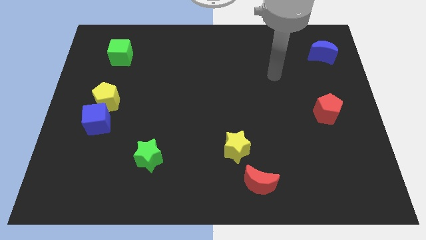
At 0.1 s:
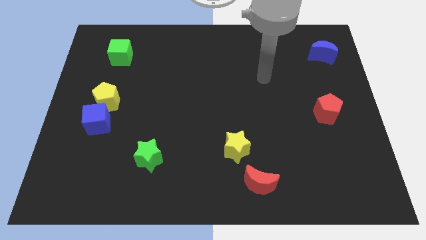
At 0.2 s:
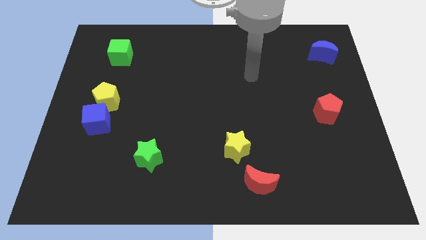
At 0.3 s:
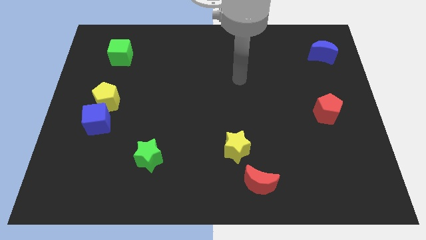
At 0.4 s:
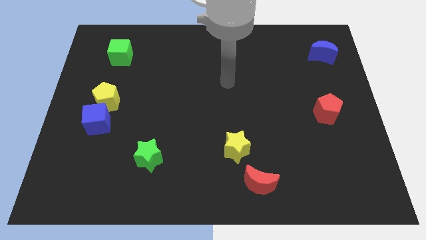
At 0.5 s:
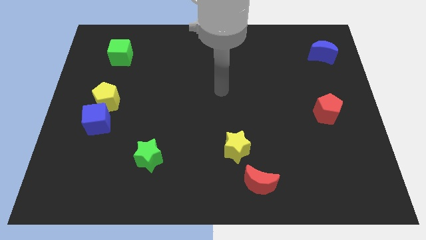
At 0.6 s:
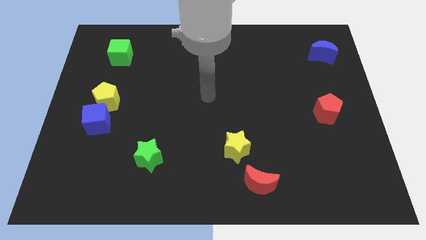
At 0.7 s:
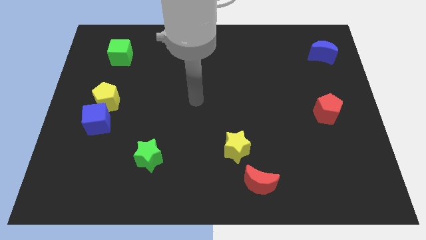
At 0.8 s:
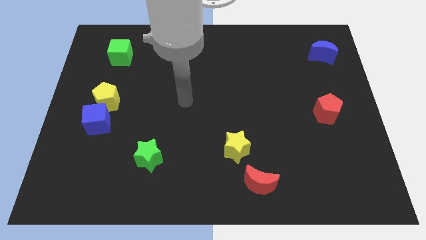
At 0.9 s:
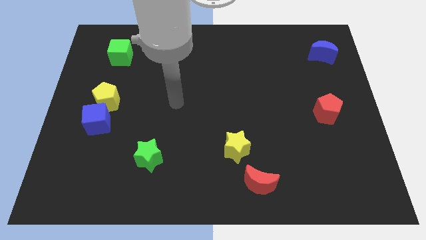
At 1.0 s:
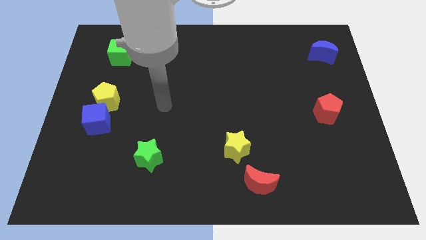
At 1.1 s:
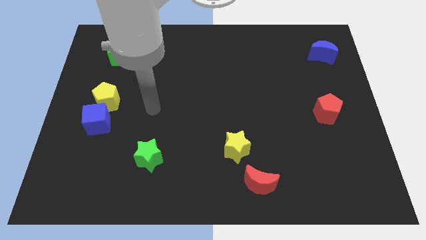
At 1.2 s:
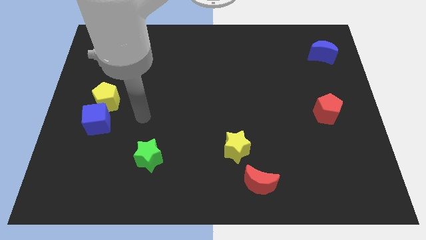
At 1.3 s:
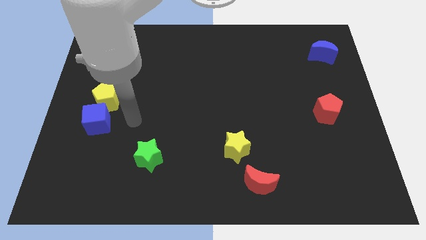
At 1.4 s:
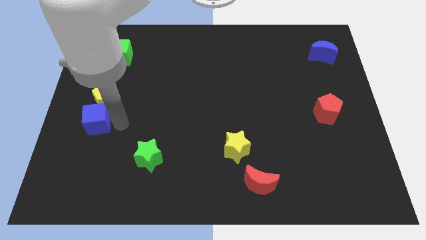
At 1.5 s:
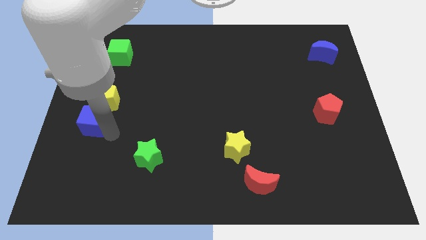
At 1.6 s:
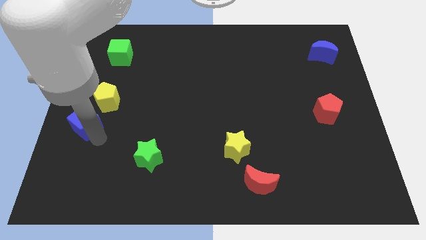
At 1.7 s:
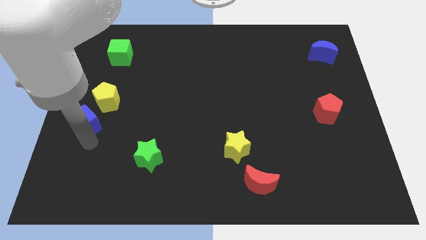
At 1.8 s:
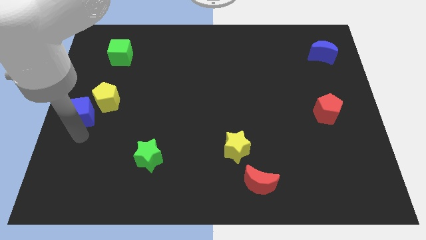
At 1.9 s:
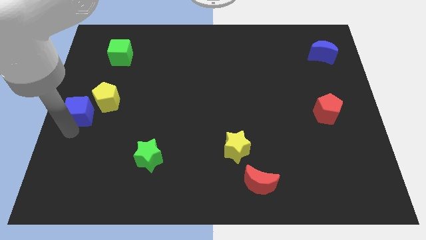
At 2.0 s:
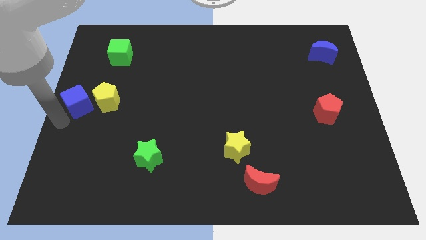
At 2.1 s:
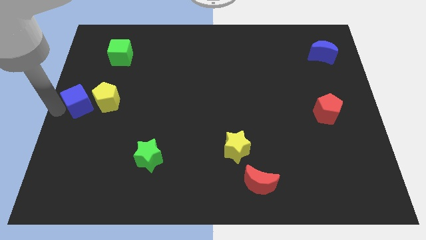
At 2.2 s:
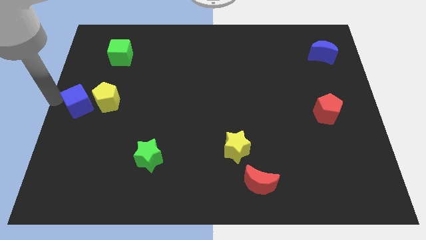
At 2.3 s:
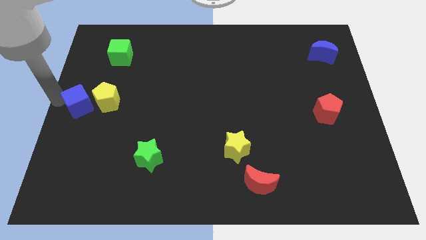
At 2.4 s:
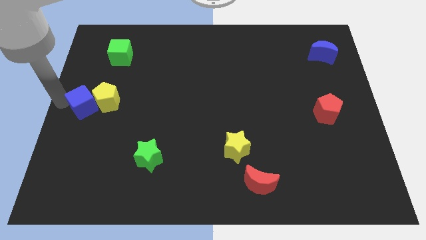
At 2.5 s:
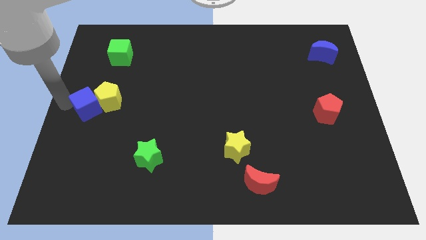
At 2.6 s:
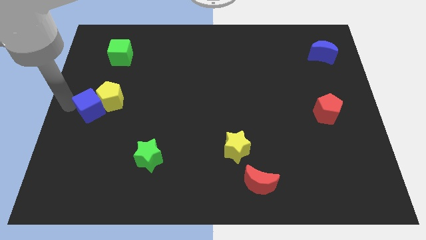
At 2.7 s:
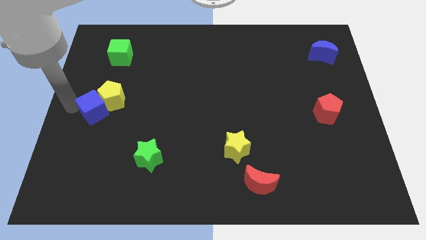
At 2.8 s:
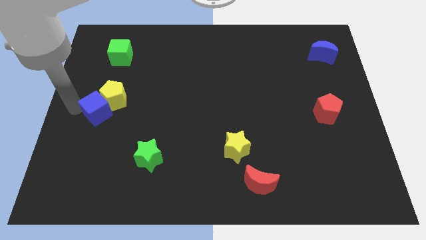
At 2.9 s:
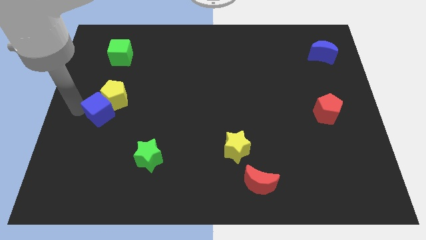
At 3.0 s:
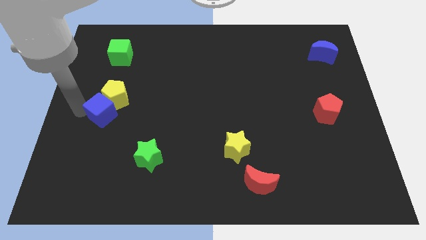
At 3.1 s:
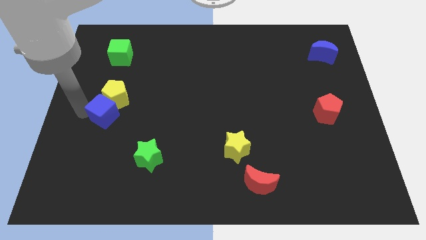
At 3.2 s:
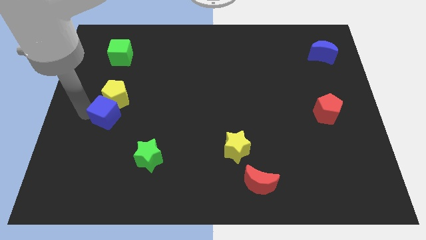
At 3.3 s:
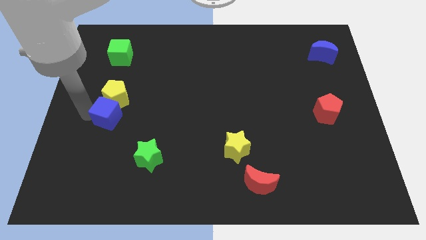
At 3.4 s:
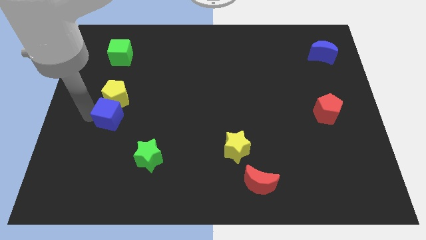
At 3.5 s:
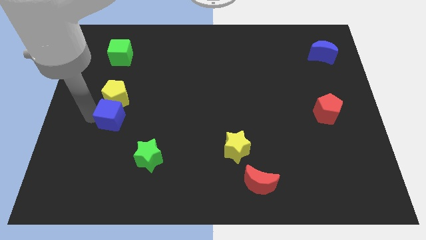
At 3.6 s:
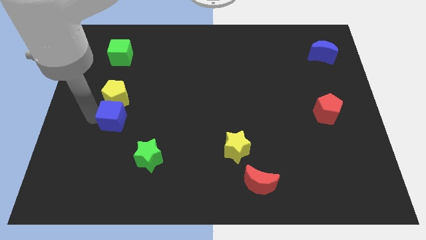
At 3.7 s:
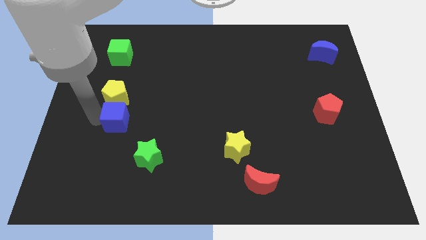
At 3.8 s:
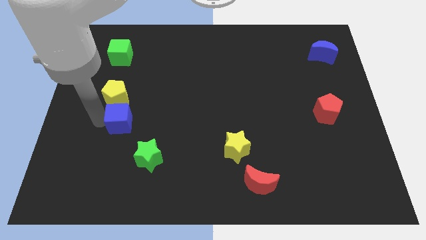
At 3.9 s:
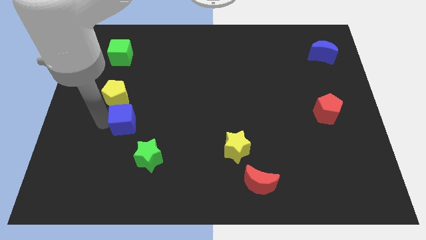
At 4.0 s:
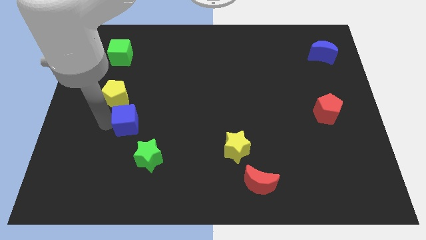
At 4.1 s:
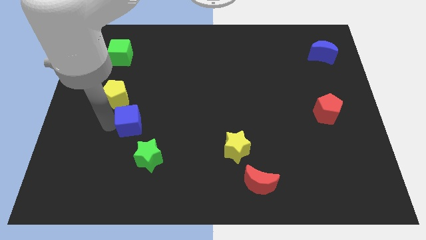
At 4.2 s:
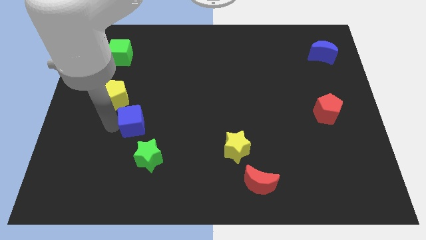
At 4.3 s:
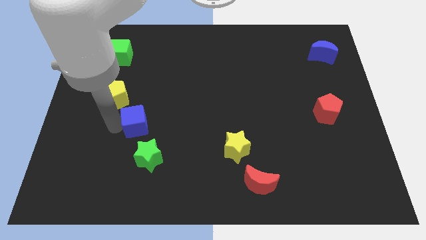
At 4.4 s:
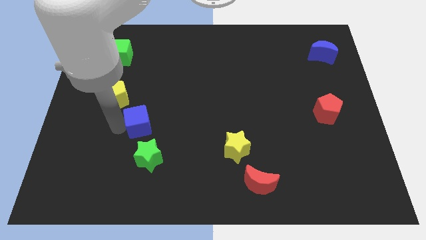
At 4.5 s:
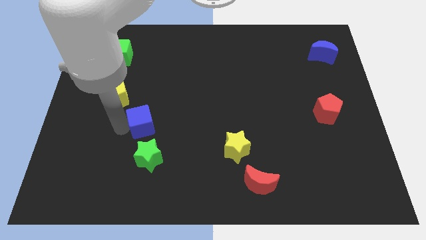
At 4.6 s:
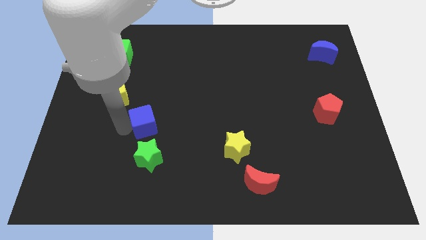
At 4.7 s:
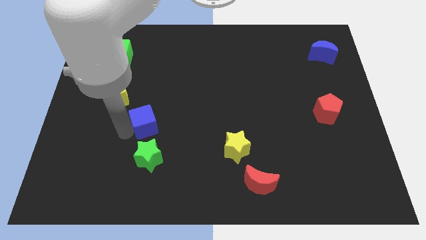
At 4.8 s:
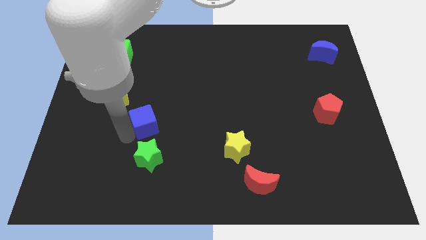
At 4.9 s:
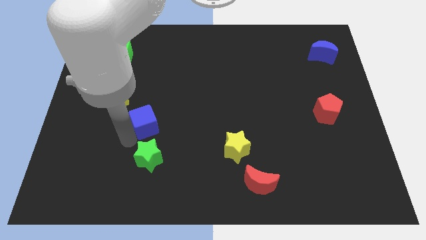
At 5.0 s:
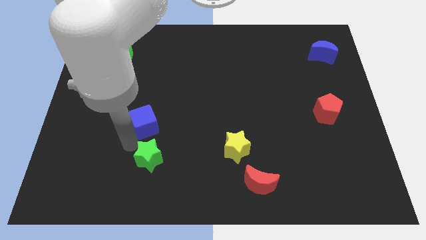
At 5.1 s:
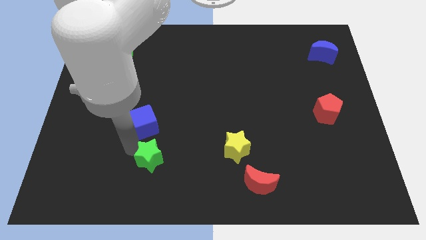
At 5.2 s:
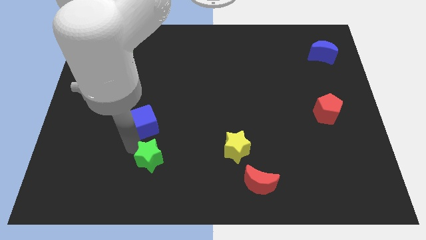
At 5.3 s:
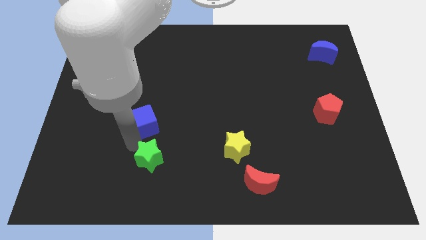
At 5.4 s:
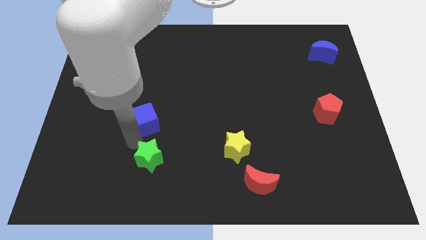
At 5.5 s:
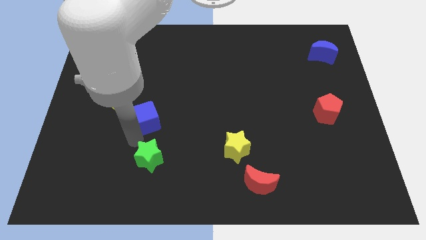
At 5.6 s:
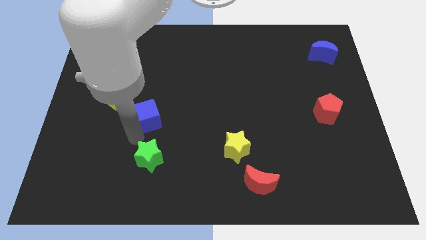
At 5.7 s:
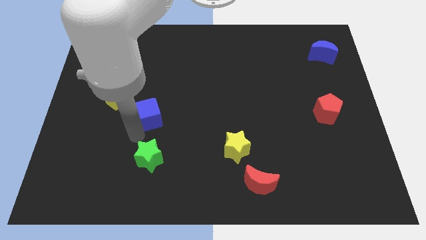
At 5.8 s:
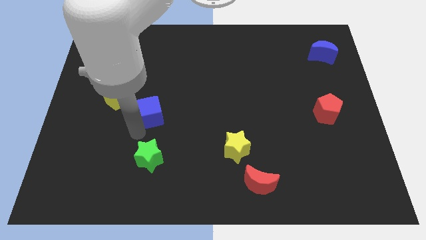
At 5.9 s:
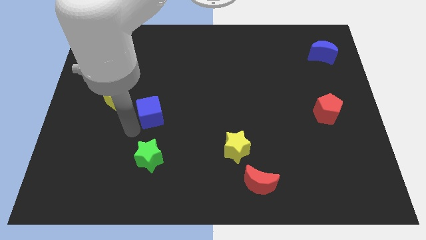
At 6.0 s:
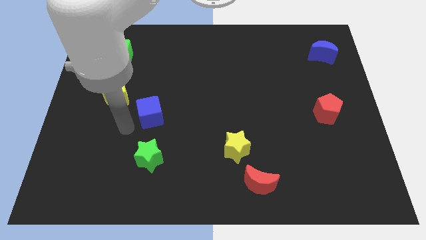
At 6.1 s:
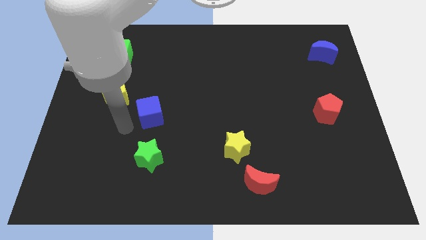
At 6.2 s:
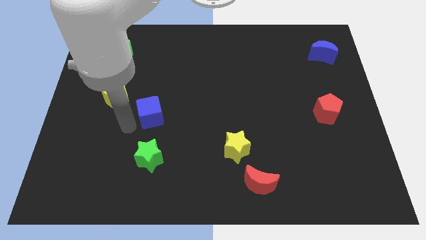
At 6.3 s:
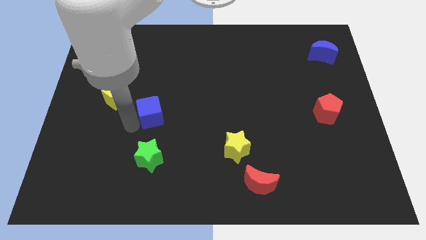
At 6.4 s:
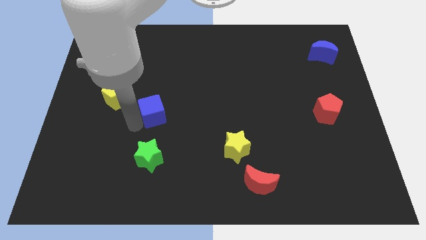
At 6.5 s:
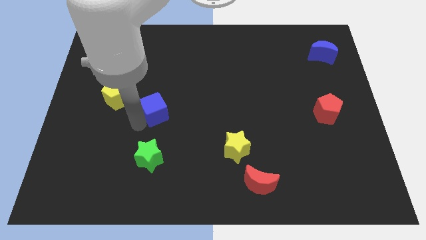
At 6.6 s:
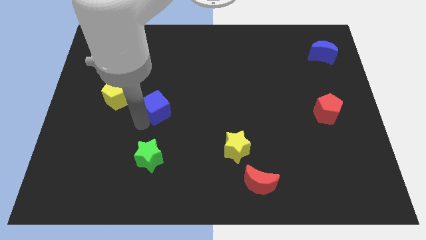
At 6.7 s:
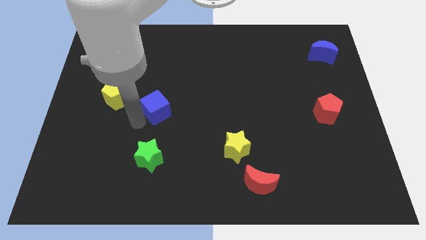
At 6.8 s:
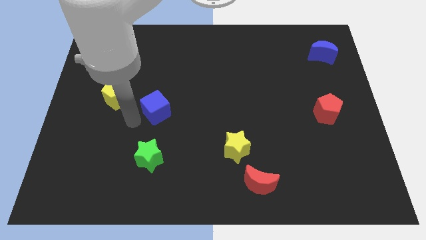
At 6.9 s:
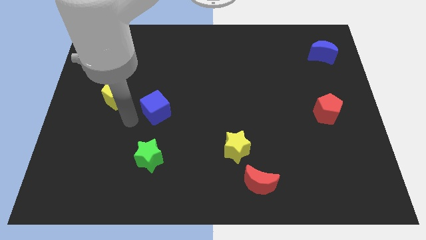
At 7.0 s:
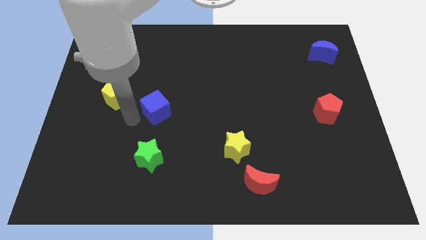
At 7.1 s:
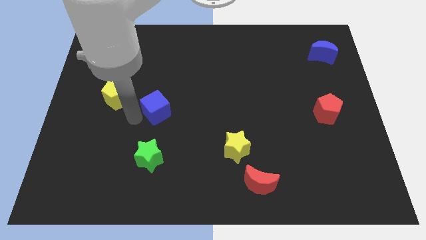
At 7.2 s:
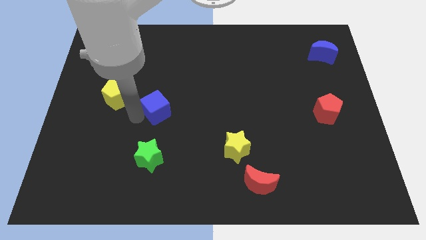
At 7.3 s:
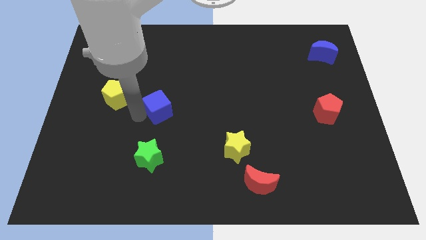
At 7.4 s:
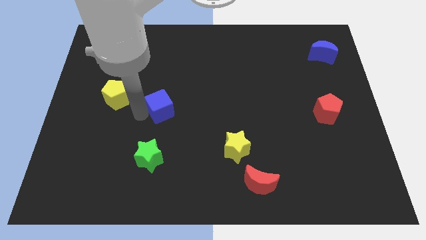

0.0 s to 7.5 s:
move the blue cube to the center of the board
